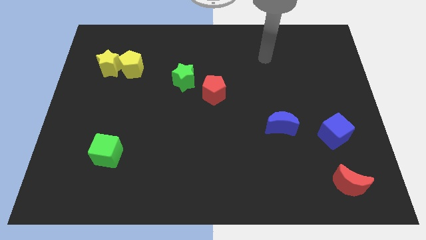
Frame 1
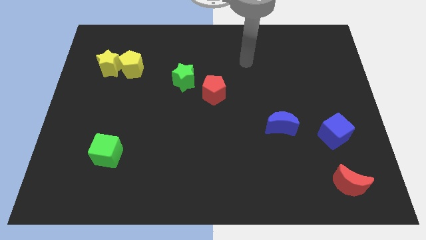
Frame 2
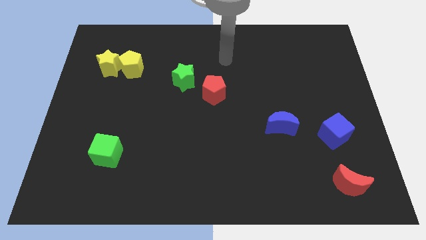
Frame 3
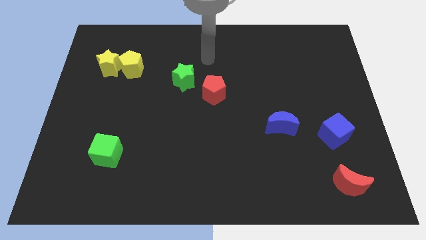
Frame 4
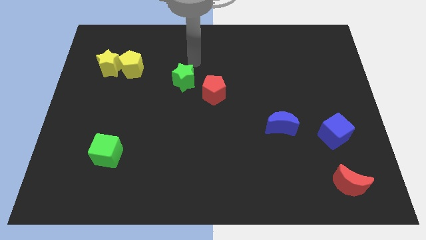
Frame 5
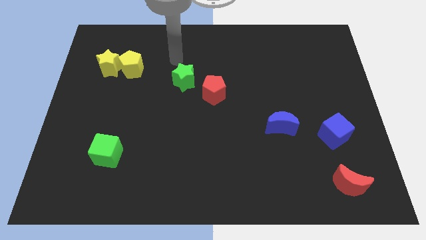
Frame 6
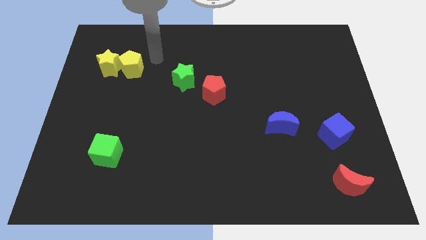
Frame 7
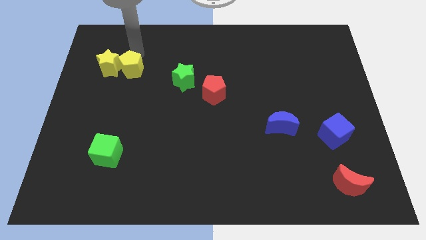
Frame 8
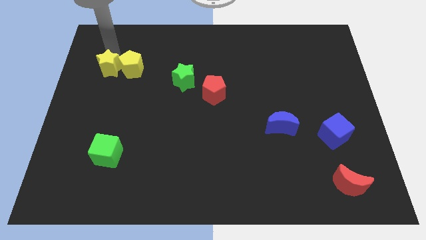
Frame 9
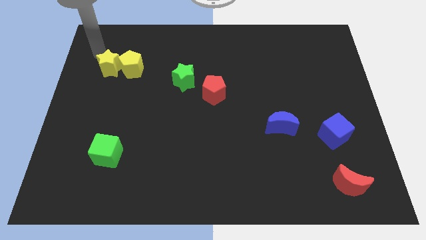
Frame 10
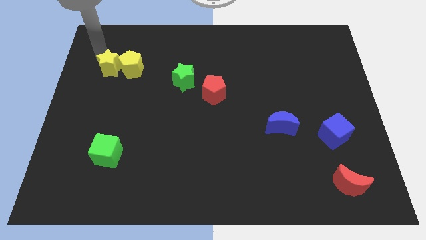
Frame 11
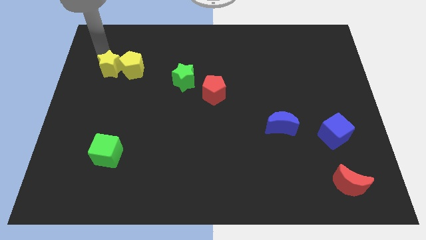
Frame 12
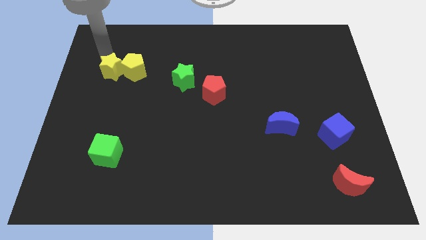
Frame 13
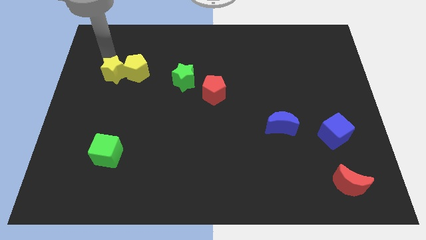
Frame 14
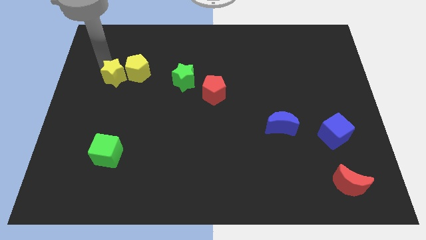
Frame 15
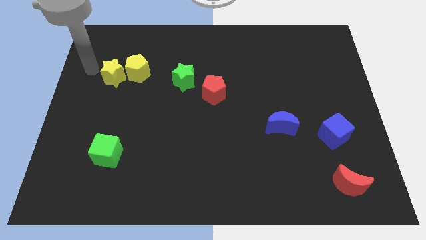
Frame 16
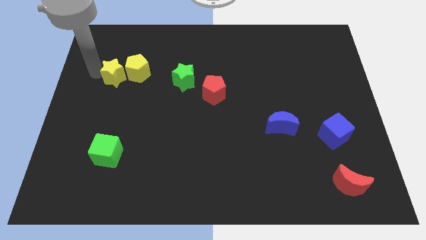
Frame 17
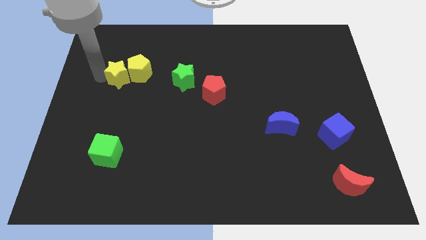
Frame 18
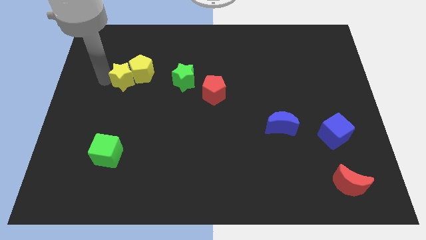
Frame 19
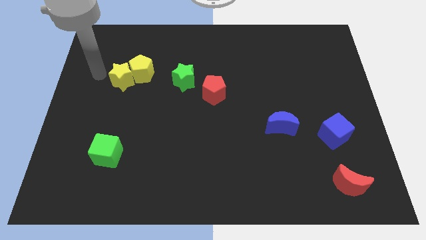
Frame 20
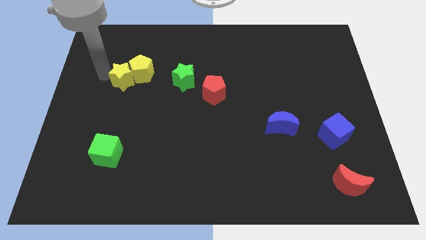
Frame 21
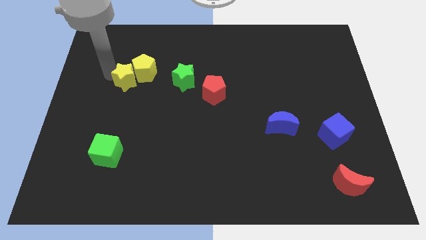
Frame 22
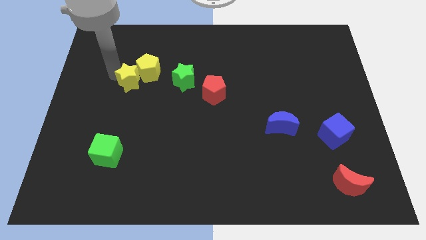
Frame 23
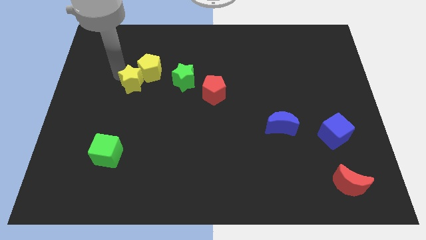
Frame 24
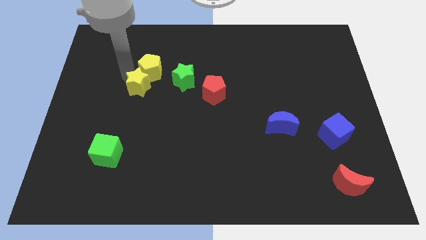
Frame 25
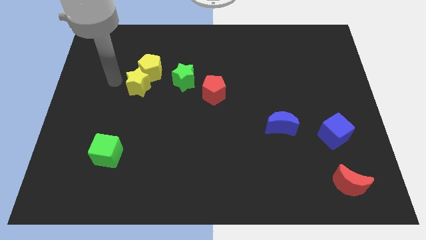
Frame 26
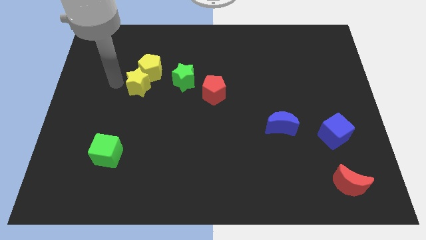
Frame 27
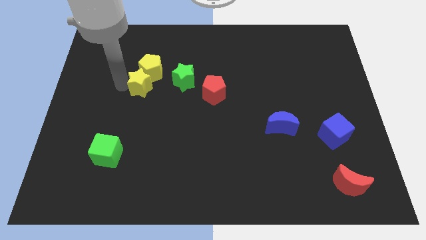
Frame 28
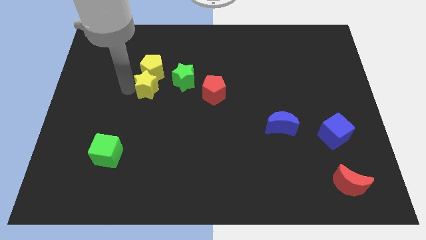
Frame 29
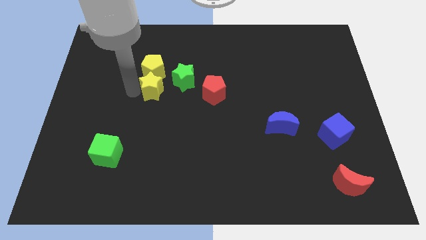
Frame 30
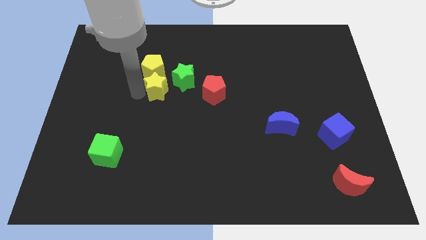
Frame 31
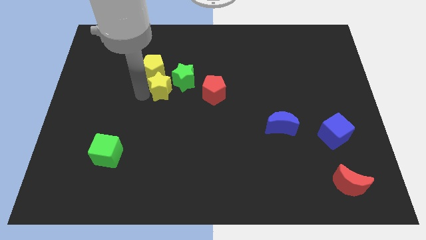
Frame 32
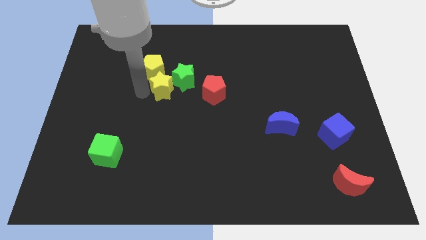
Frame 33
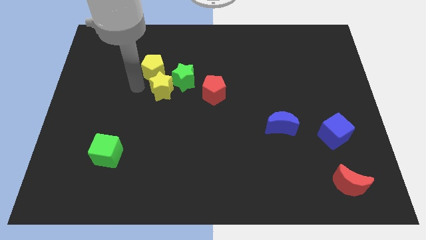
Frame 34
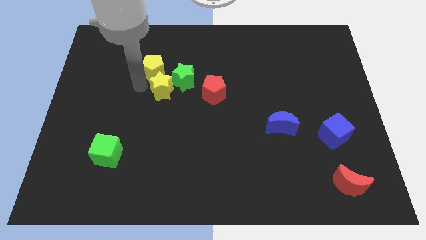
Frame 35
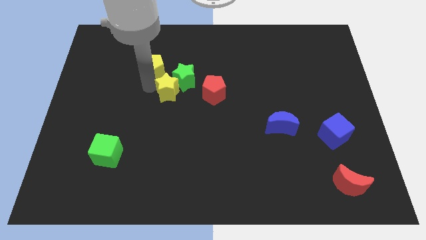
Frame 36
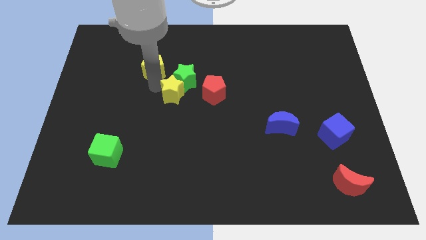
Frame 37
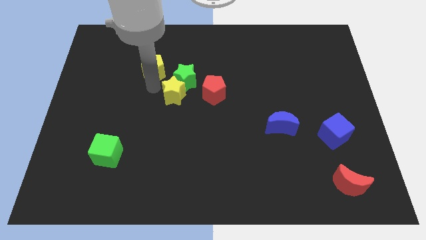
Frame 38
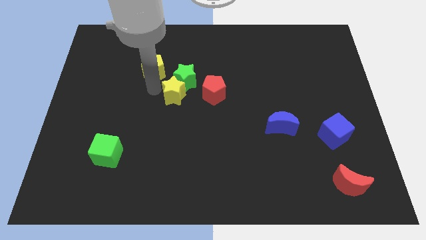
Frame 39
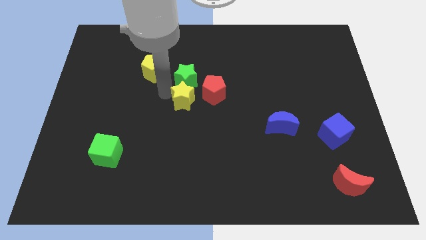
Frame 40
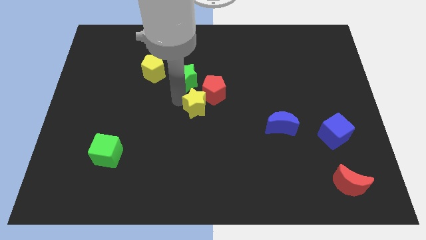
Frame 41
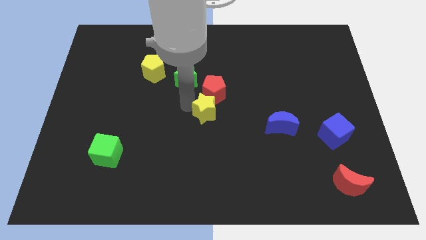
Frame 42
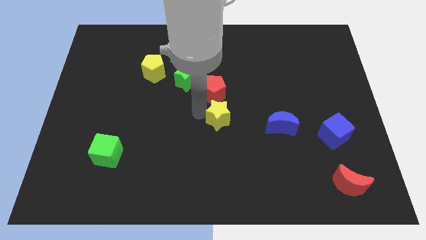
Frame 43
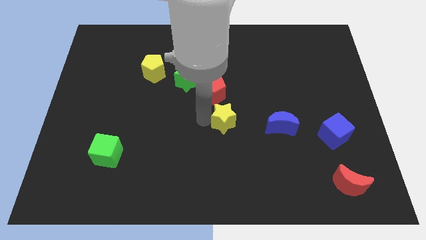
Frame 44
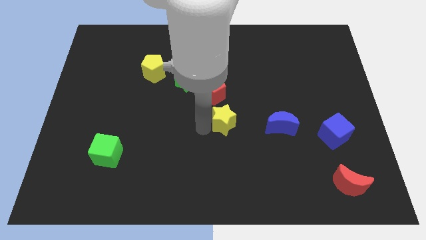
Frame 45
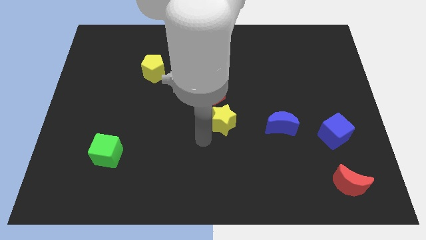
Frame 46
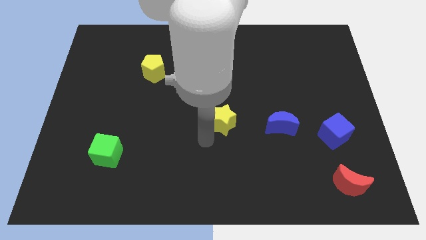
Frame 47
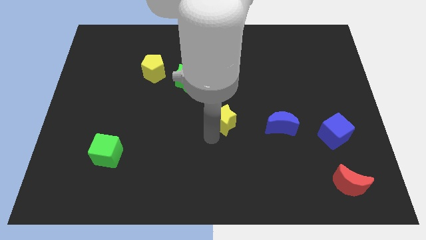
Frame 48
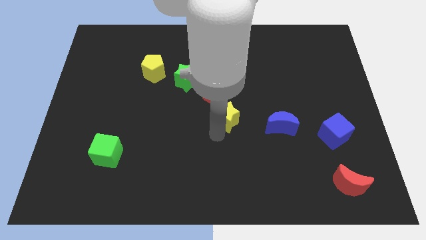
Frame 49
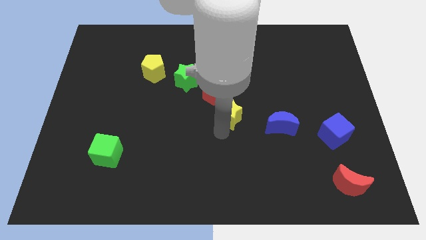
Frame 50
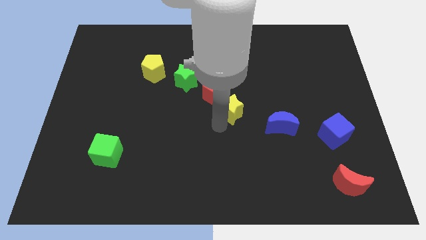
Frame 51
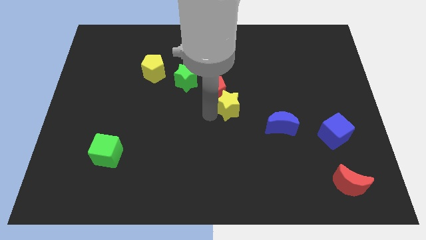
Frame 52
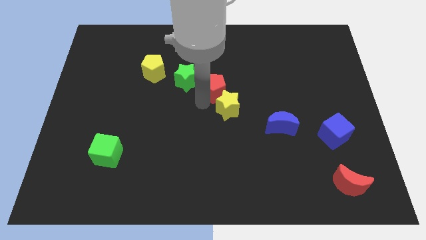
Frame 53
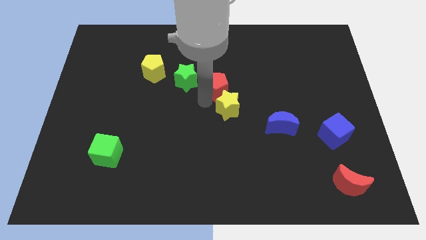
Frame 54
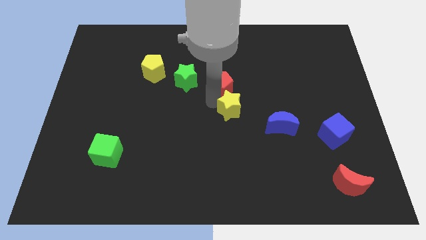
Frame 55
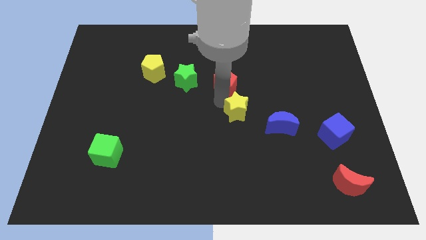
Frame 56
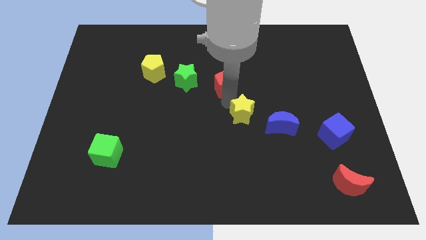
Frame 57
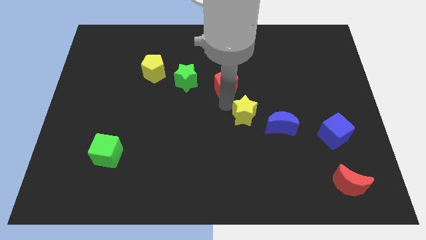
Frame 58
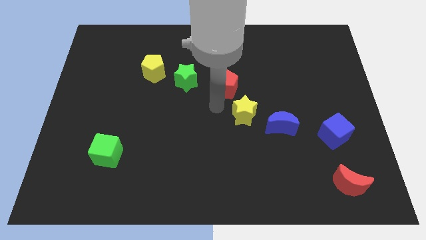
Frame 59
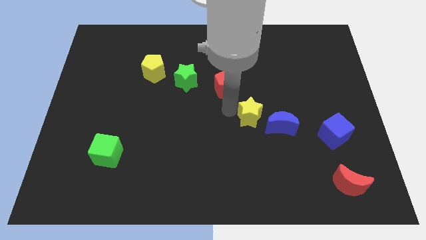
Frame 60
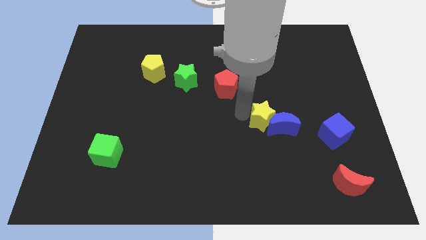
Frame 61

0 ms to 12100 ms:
push the yellow star towards the blue moon

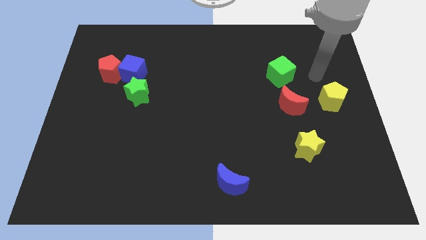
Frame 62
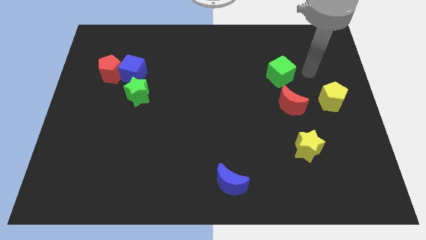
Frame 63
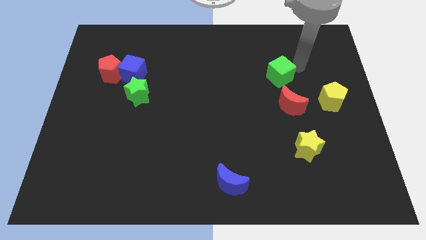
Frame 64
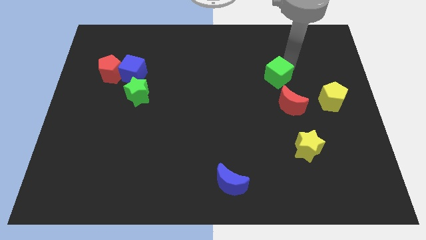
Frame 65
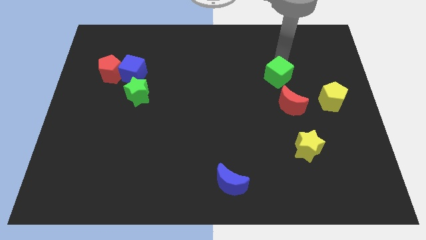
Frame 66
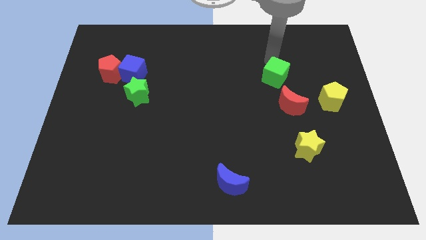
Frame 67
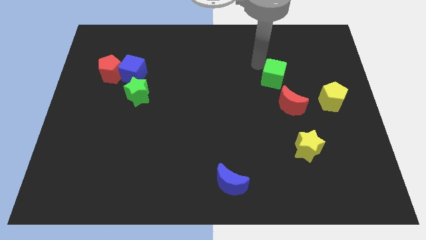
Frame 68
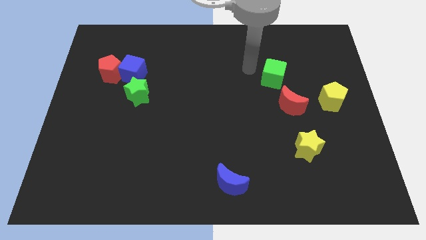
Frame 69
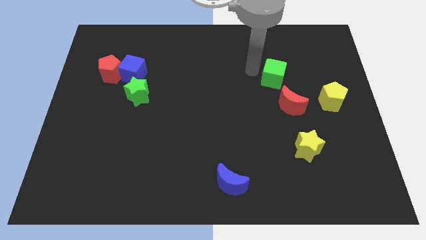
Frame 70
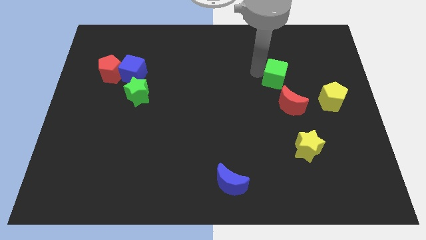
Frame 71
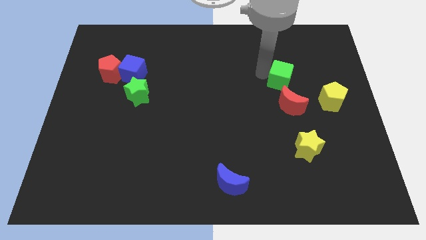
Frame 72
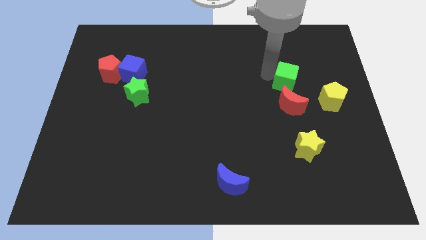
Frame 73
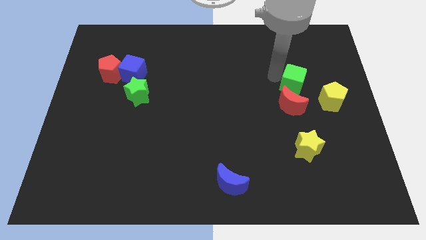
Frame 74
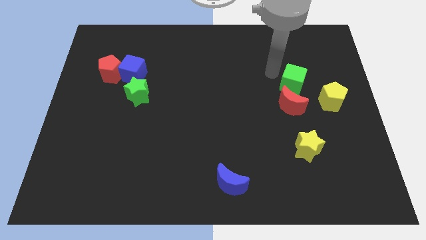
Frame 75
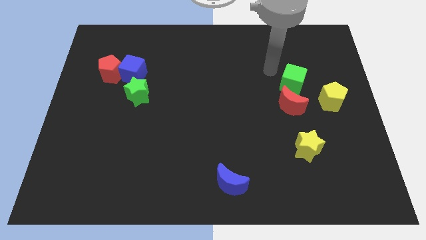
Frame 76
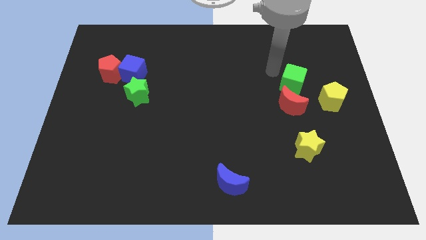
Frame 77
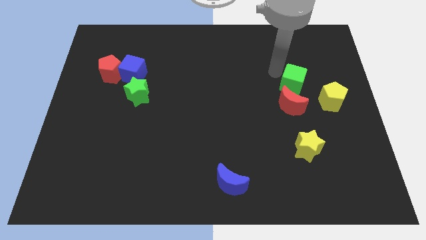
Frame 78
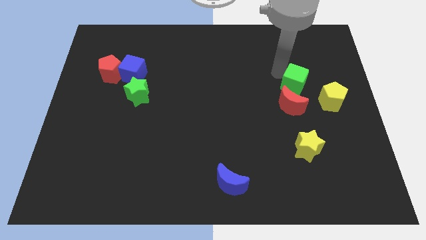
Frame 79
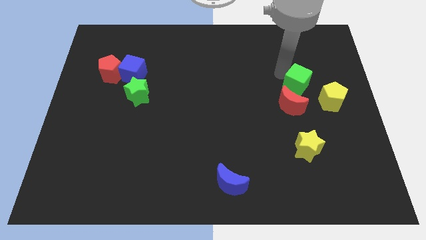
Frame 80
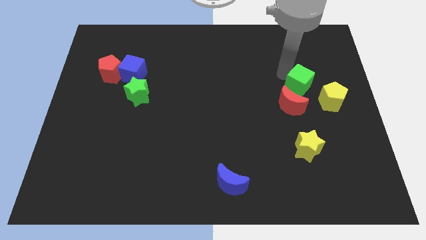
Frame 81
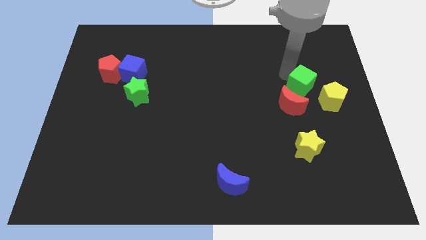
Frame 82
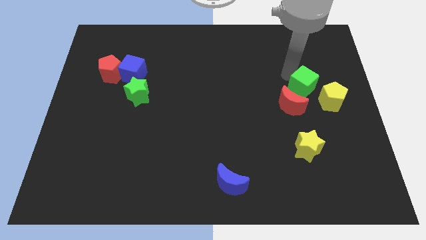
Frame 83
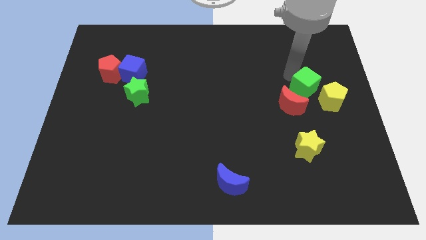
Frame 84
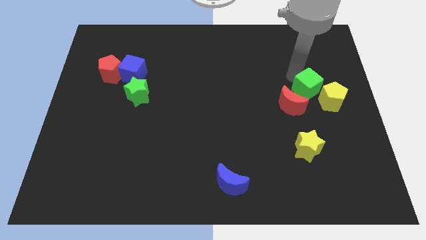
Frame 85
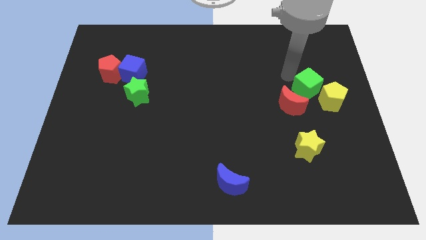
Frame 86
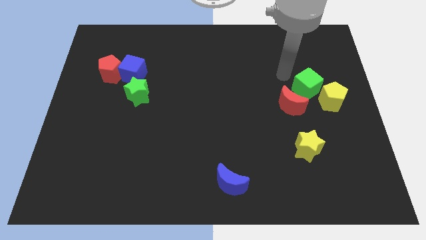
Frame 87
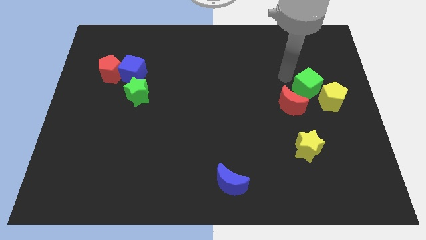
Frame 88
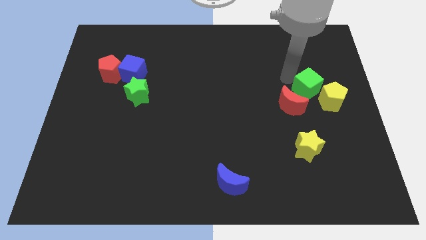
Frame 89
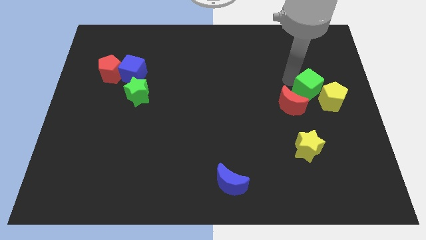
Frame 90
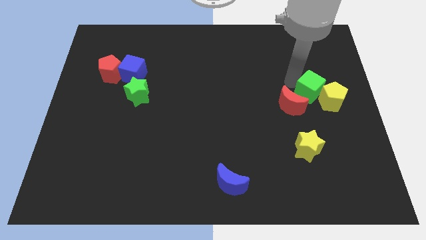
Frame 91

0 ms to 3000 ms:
slide the green cube towards the yellow pentagon
